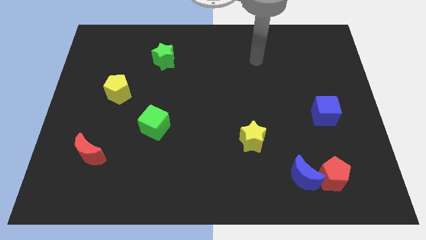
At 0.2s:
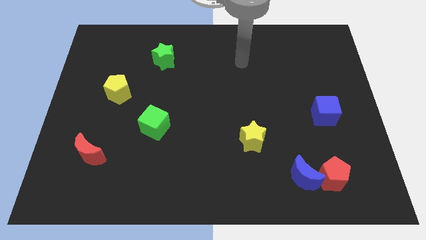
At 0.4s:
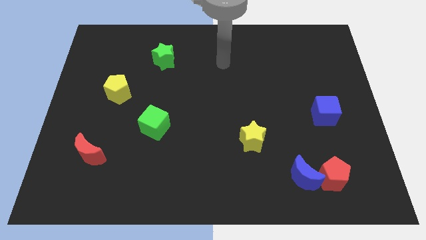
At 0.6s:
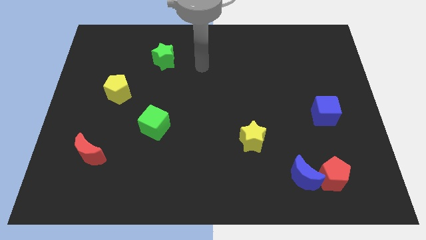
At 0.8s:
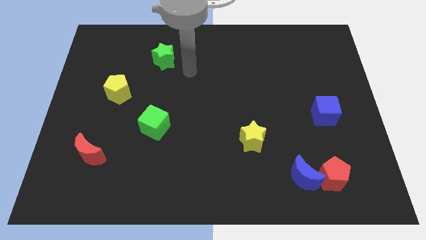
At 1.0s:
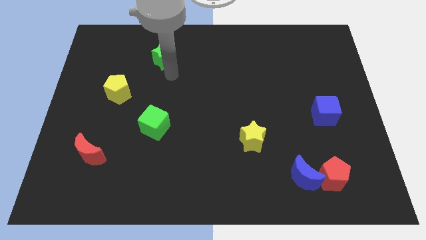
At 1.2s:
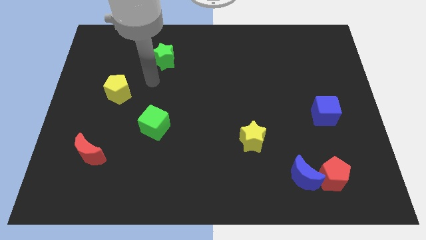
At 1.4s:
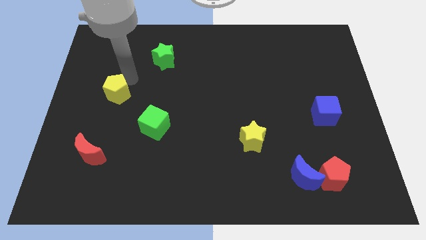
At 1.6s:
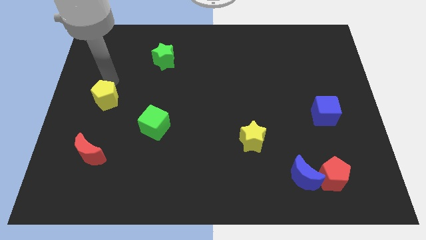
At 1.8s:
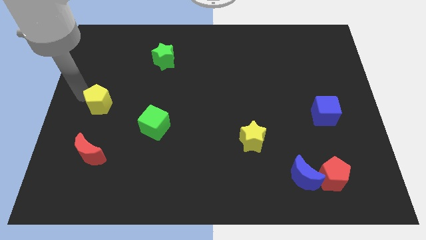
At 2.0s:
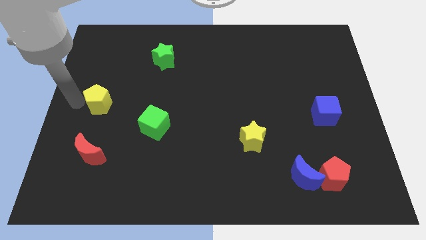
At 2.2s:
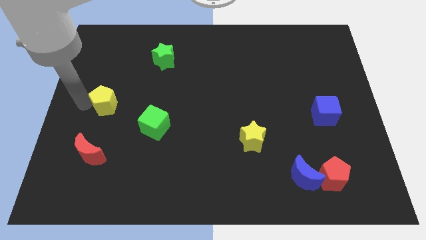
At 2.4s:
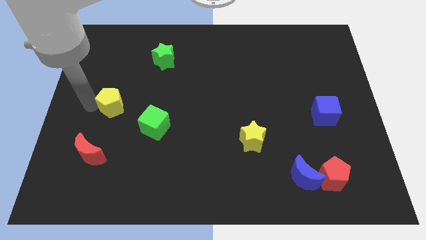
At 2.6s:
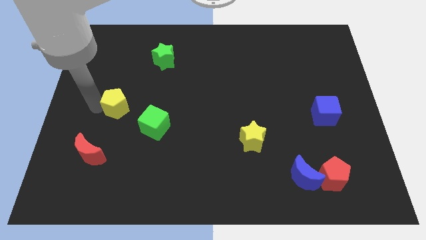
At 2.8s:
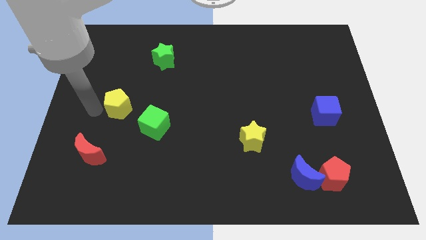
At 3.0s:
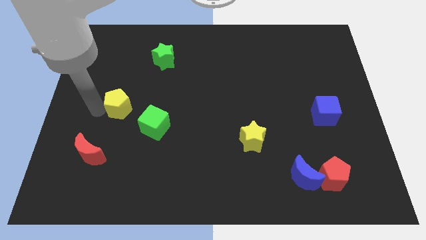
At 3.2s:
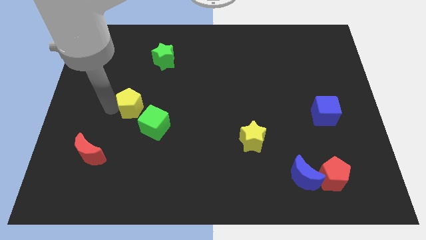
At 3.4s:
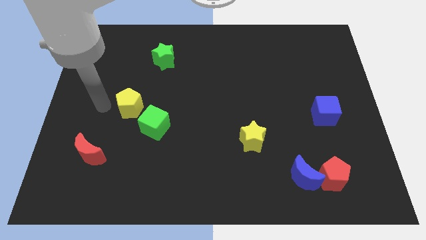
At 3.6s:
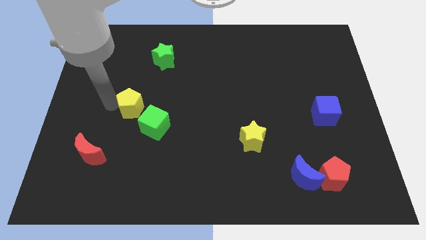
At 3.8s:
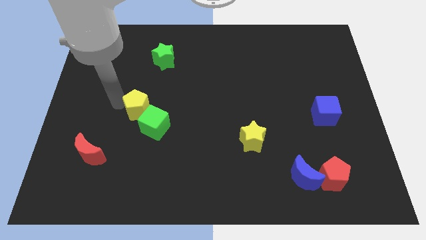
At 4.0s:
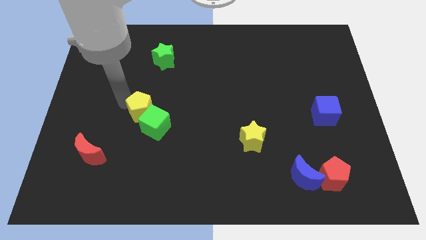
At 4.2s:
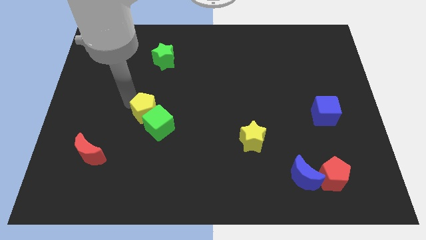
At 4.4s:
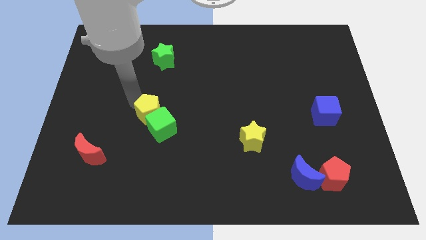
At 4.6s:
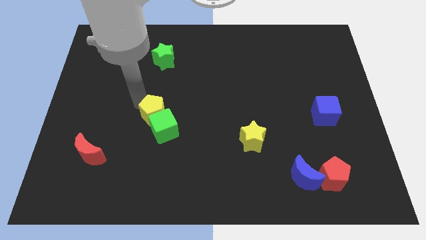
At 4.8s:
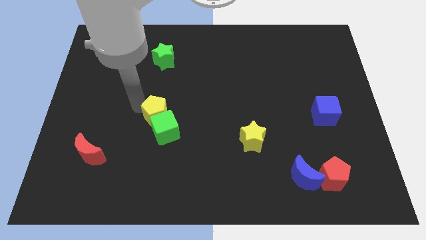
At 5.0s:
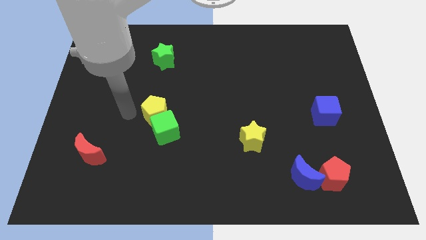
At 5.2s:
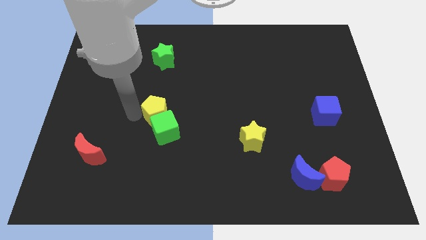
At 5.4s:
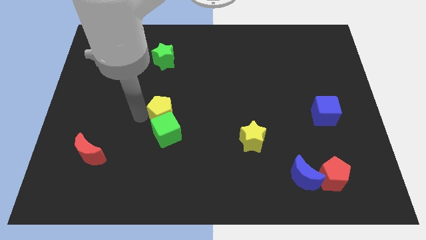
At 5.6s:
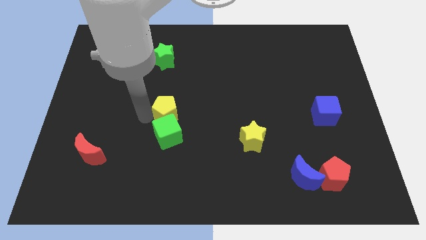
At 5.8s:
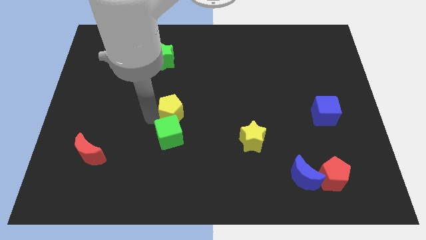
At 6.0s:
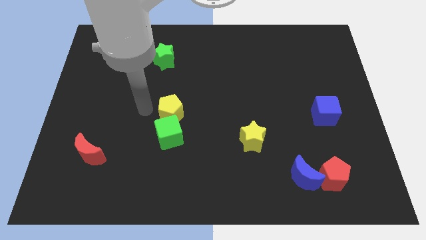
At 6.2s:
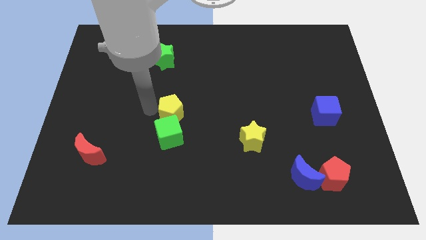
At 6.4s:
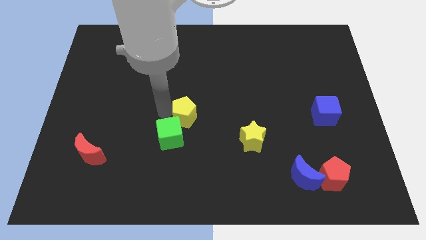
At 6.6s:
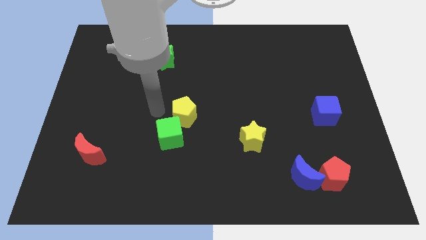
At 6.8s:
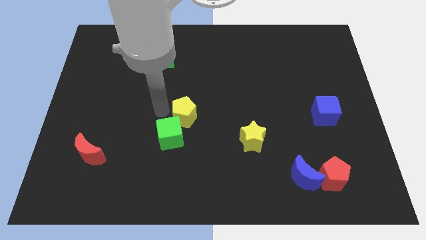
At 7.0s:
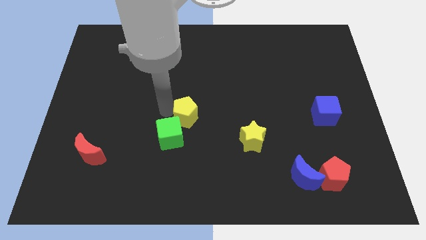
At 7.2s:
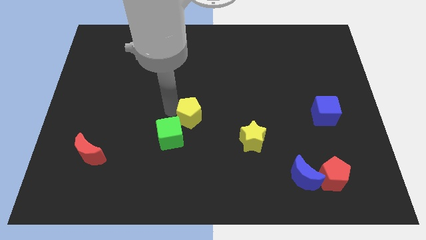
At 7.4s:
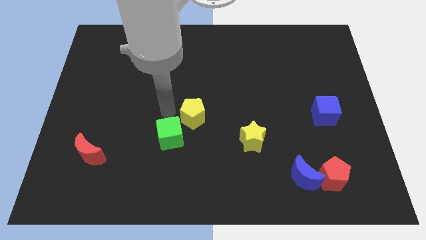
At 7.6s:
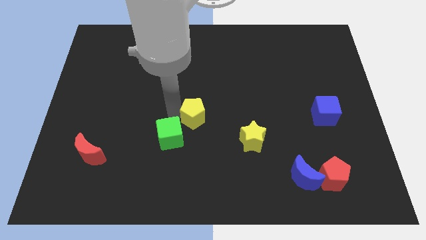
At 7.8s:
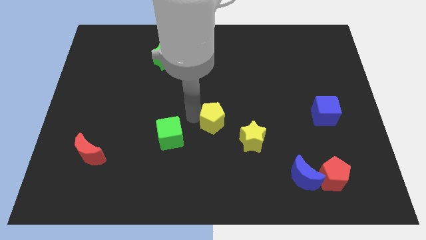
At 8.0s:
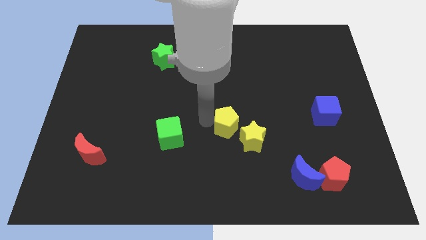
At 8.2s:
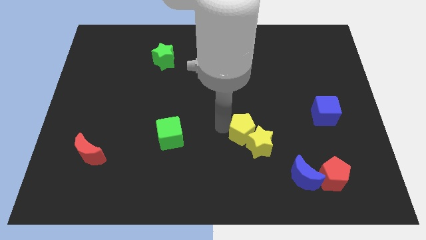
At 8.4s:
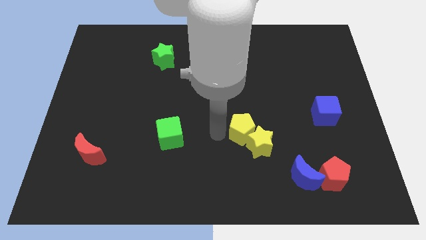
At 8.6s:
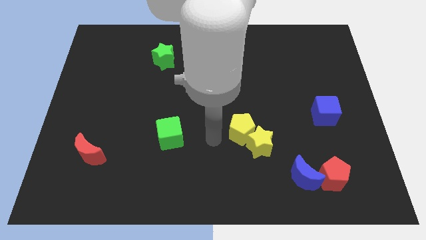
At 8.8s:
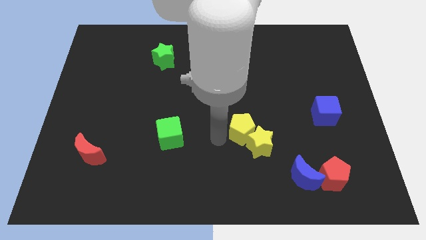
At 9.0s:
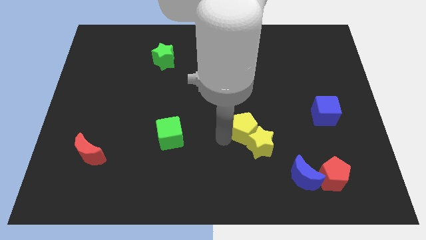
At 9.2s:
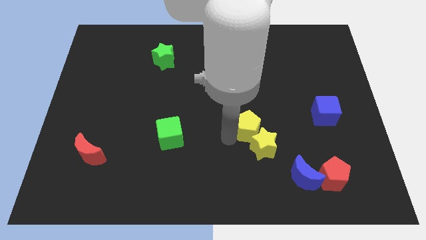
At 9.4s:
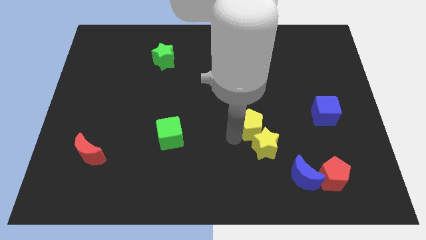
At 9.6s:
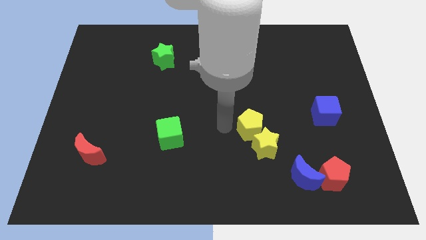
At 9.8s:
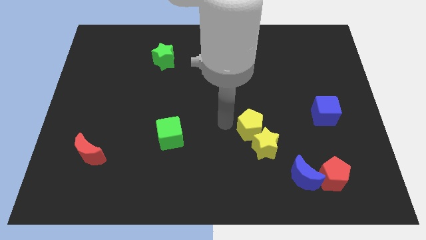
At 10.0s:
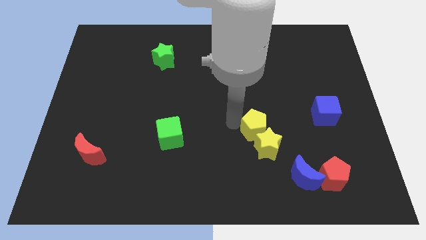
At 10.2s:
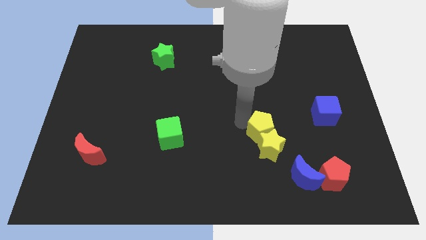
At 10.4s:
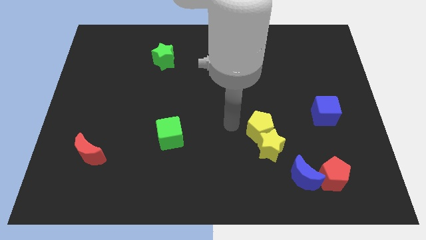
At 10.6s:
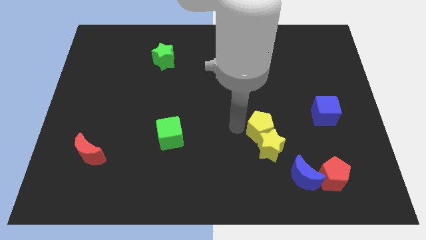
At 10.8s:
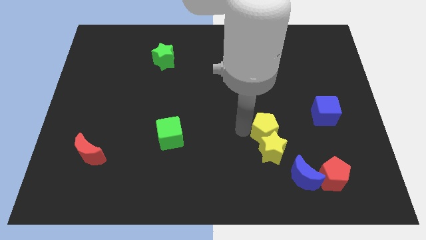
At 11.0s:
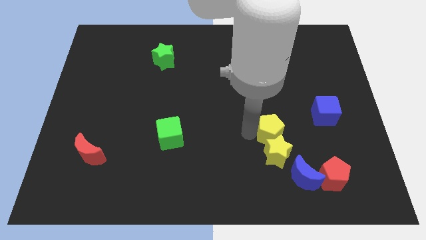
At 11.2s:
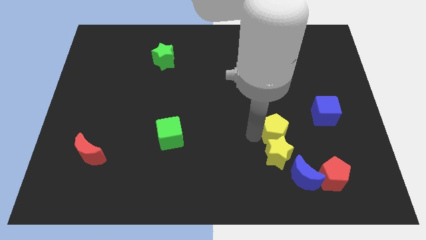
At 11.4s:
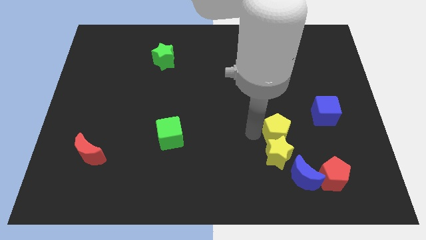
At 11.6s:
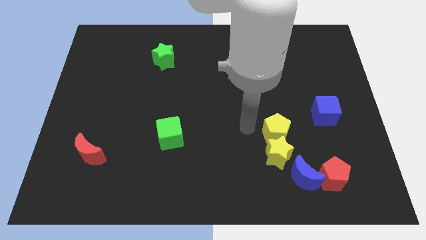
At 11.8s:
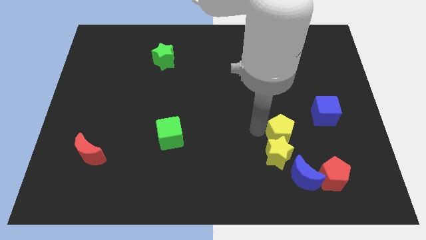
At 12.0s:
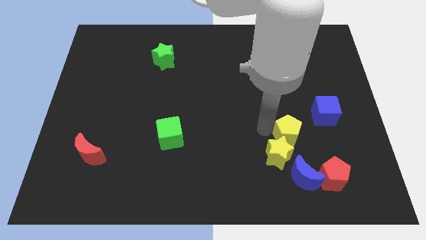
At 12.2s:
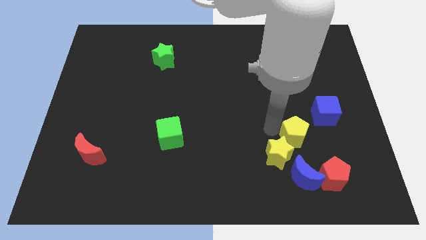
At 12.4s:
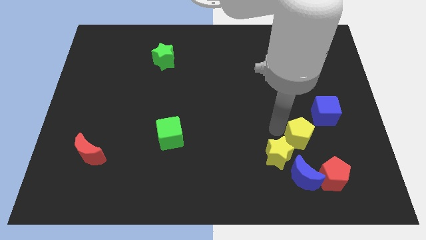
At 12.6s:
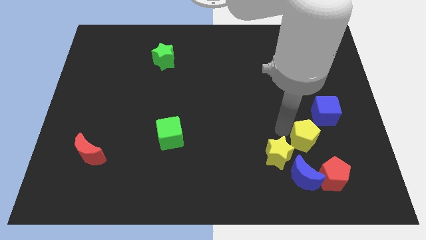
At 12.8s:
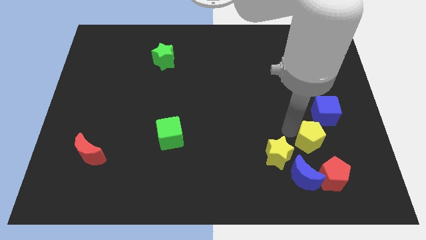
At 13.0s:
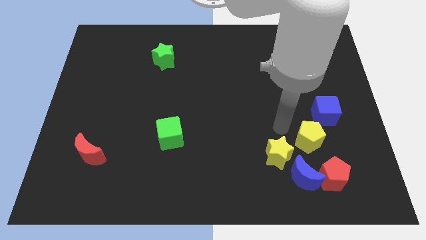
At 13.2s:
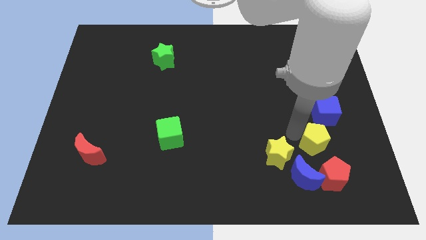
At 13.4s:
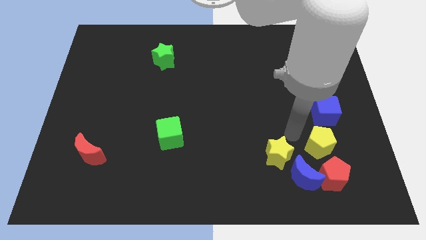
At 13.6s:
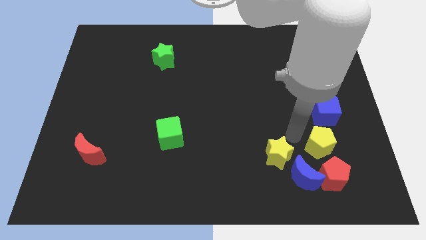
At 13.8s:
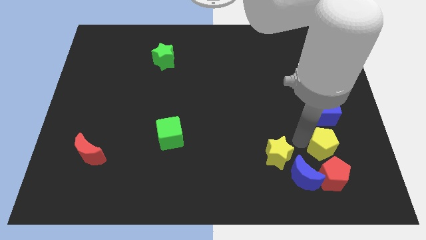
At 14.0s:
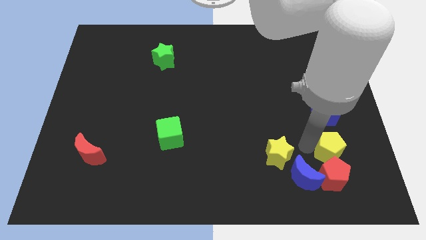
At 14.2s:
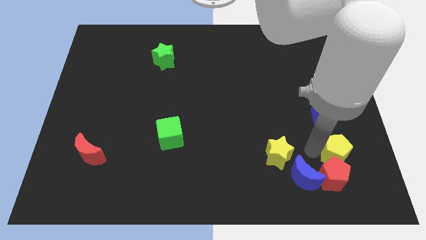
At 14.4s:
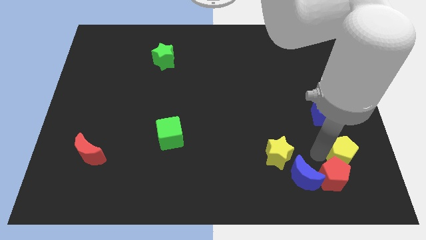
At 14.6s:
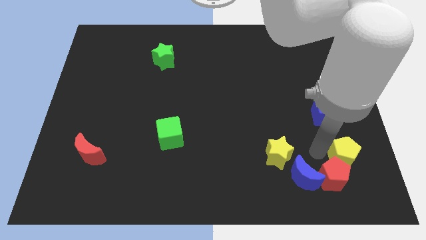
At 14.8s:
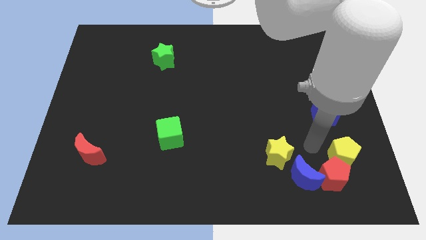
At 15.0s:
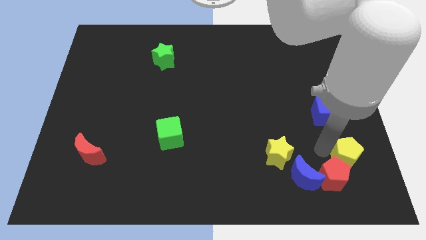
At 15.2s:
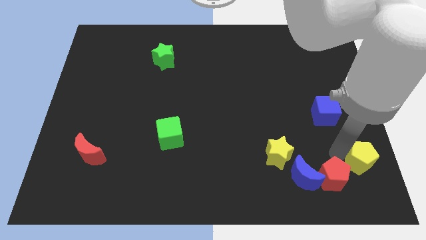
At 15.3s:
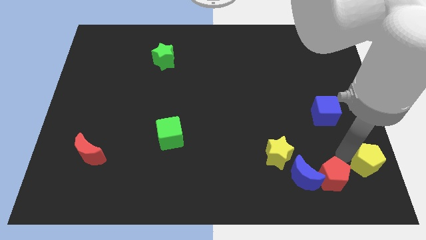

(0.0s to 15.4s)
put the yellow pentagon to the lower right corner
